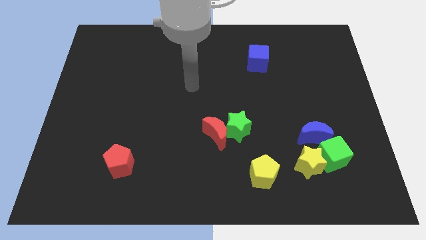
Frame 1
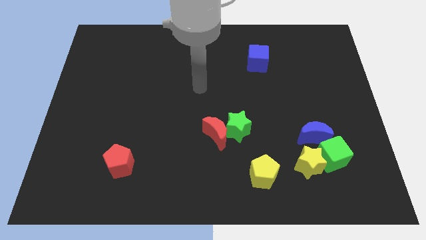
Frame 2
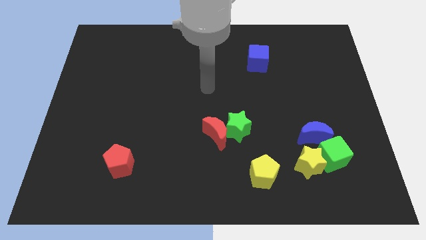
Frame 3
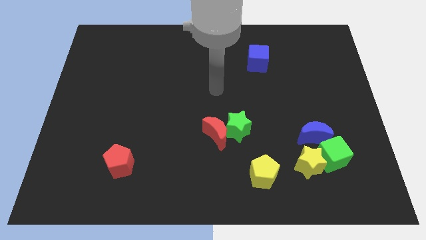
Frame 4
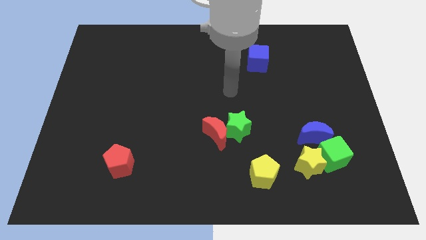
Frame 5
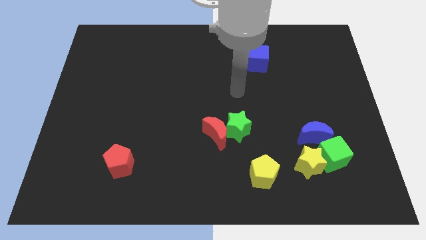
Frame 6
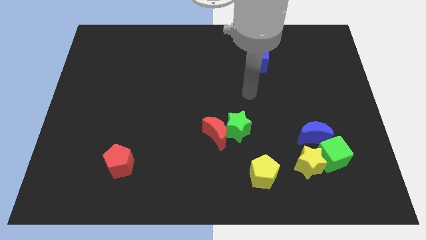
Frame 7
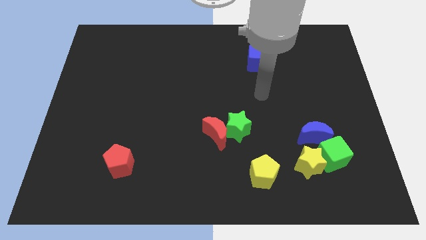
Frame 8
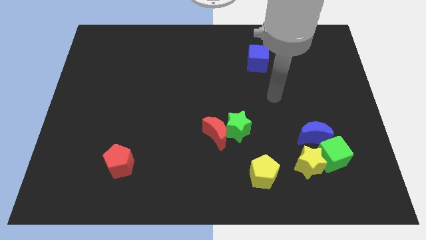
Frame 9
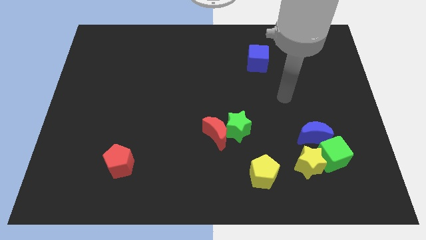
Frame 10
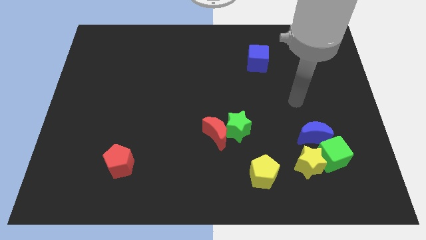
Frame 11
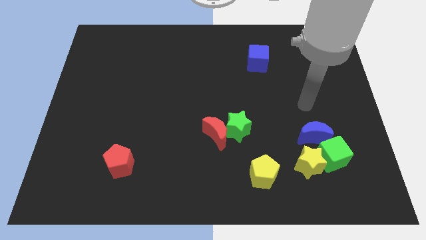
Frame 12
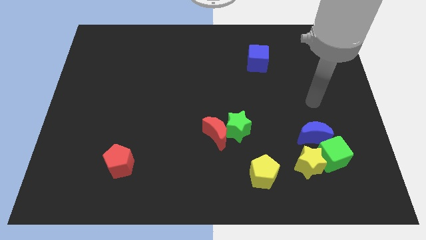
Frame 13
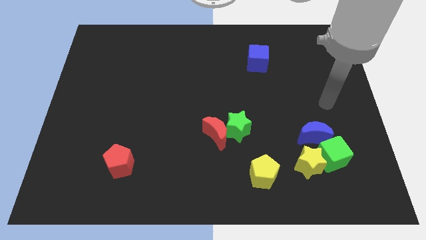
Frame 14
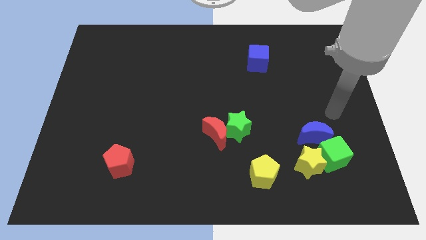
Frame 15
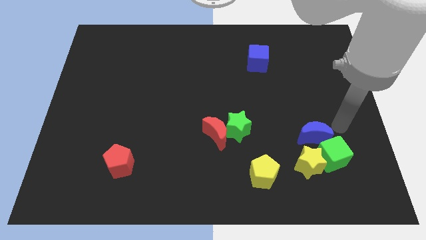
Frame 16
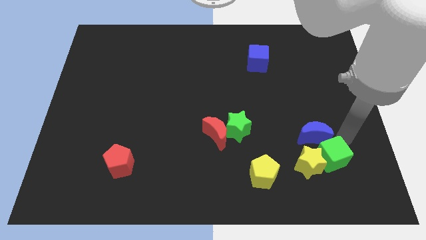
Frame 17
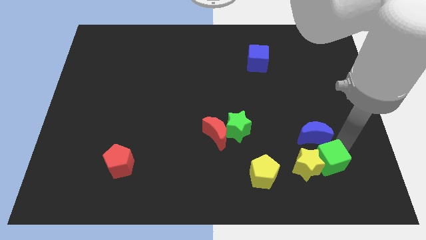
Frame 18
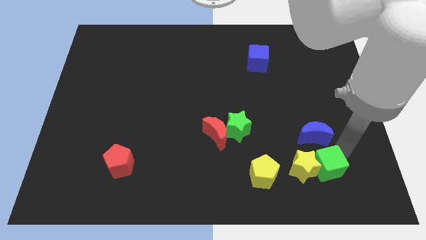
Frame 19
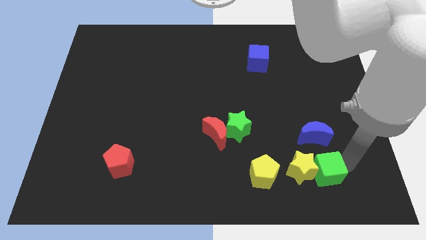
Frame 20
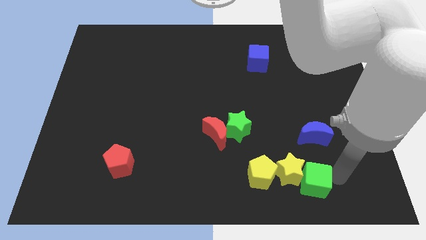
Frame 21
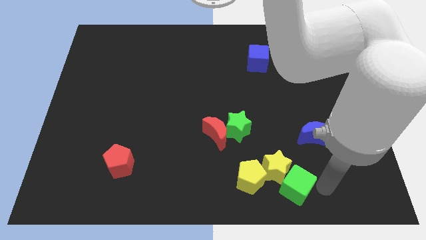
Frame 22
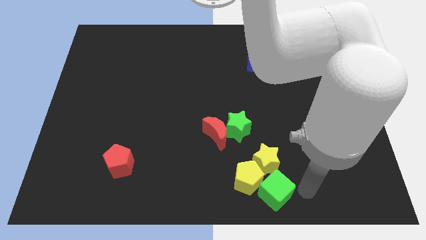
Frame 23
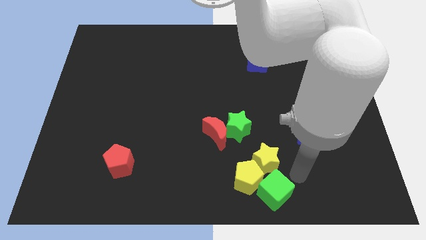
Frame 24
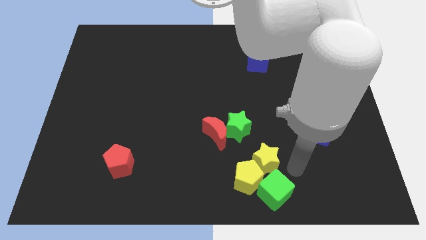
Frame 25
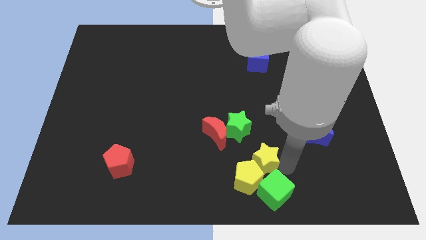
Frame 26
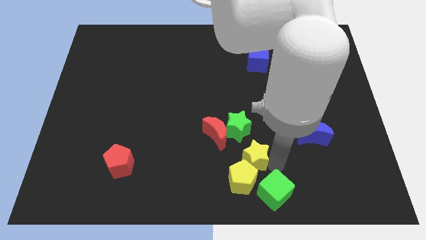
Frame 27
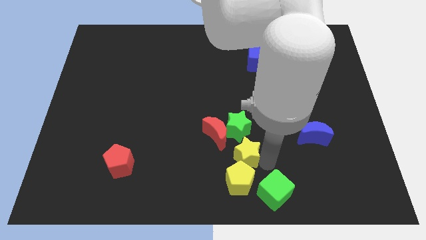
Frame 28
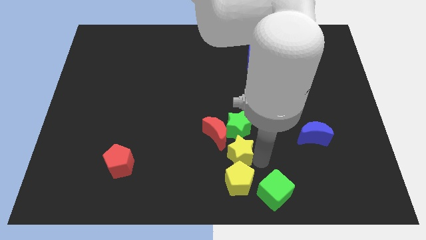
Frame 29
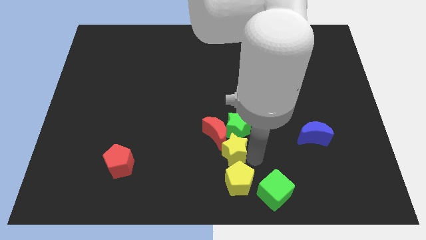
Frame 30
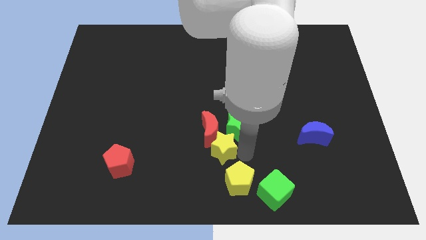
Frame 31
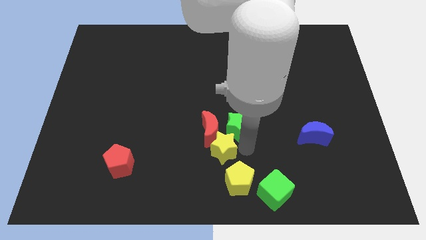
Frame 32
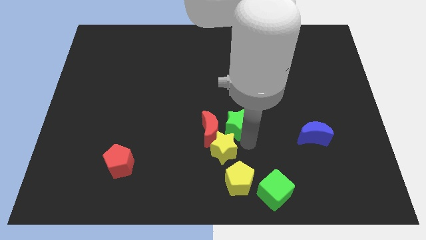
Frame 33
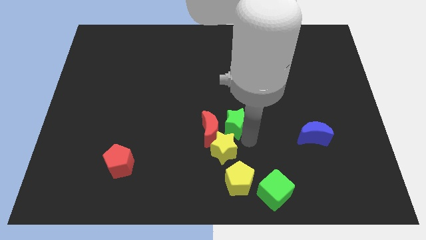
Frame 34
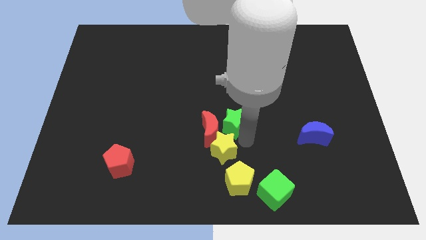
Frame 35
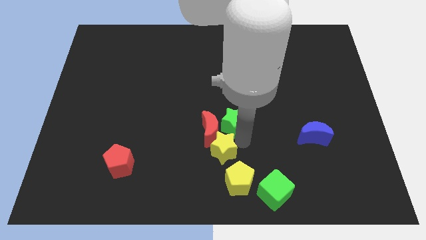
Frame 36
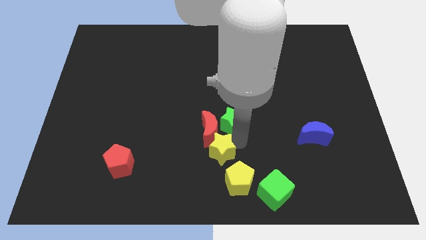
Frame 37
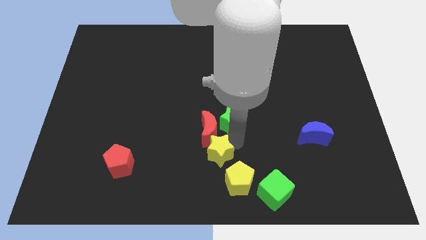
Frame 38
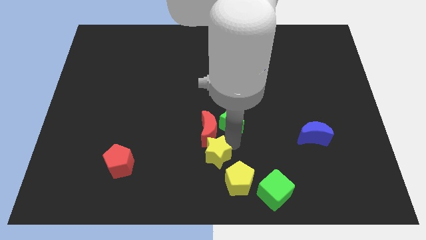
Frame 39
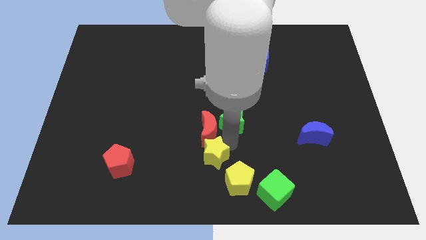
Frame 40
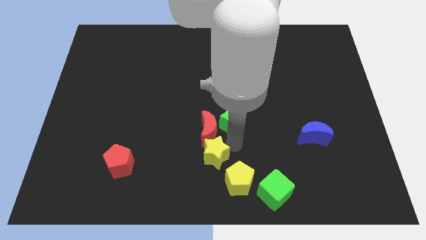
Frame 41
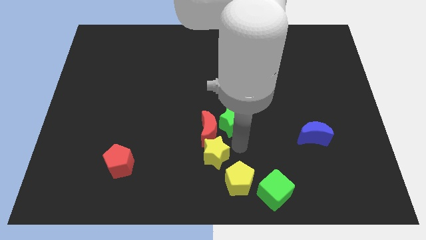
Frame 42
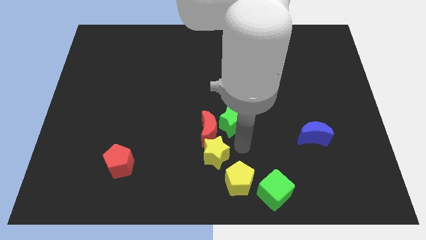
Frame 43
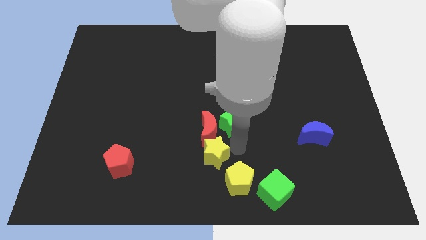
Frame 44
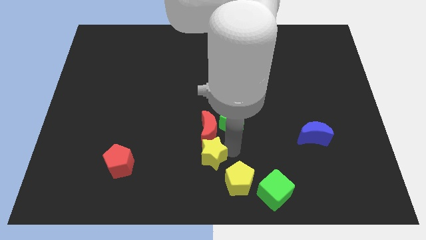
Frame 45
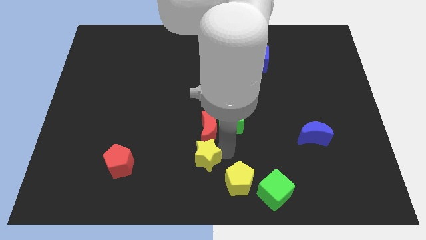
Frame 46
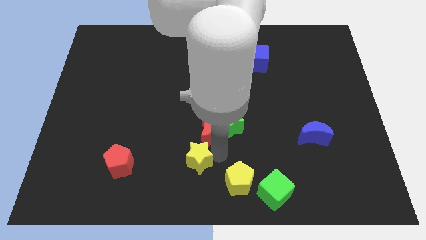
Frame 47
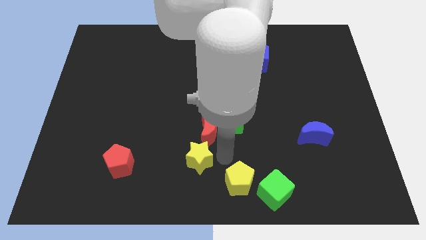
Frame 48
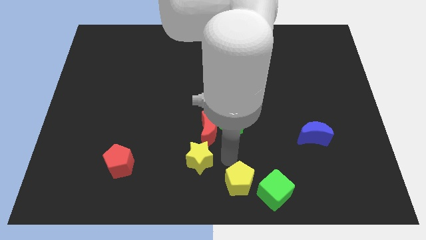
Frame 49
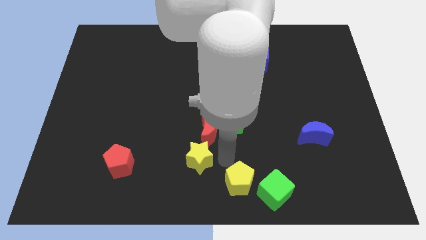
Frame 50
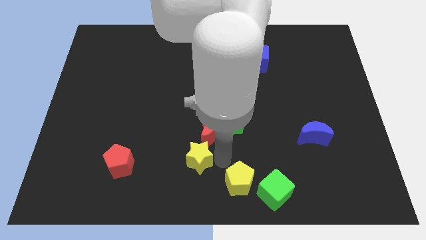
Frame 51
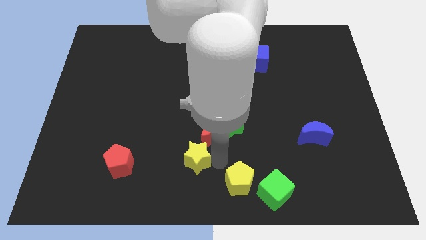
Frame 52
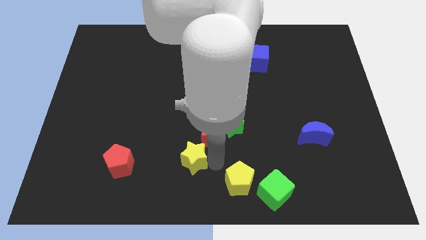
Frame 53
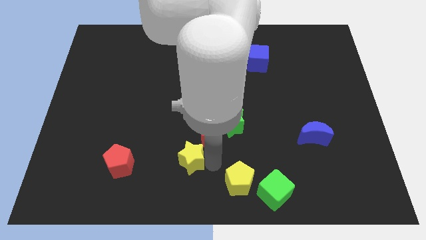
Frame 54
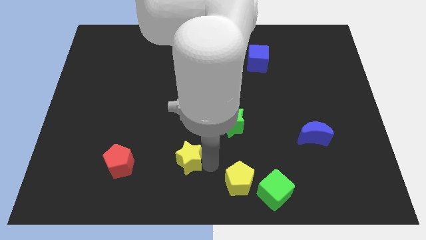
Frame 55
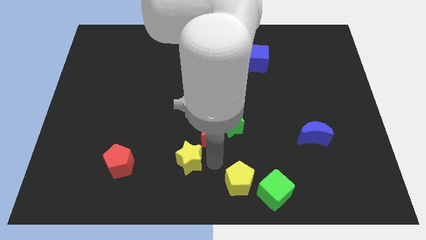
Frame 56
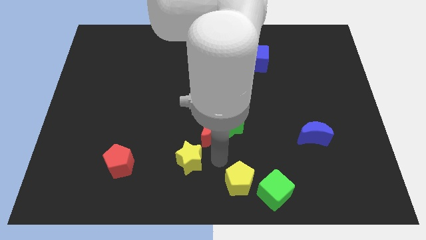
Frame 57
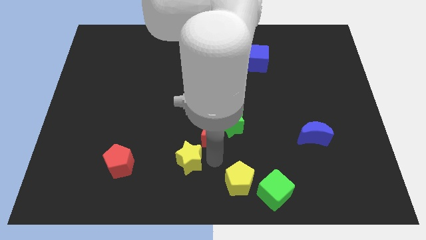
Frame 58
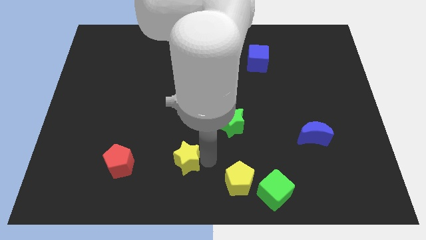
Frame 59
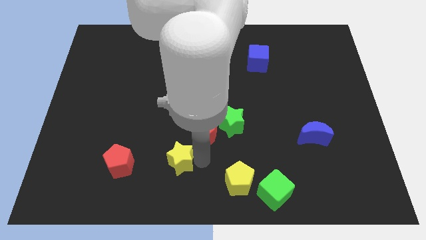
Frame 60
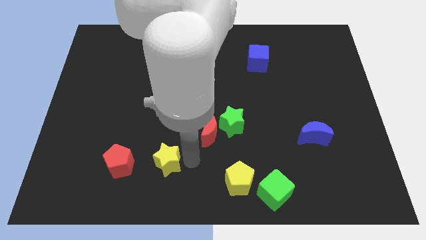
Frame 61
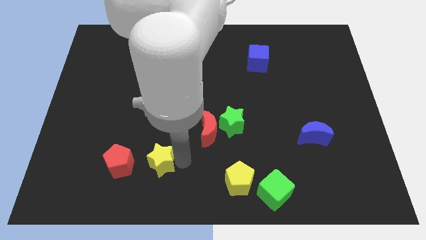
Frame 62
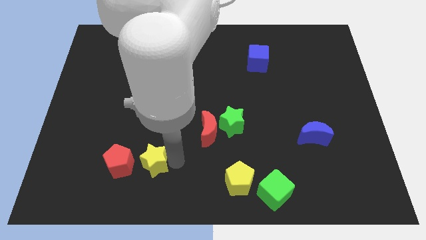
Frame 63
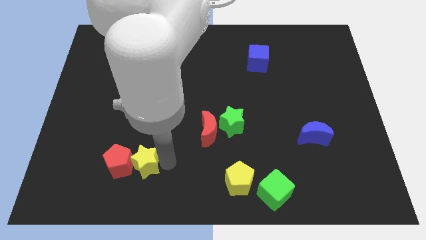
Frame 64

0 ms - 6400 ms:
push the yellow star next to the red pentagon

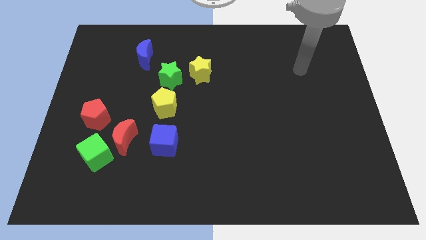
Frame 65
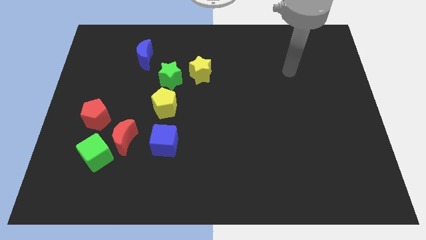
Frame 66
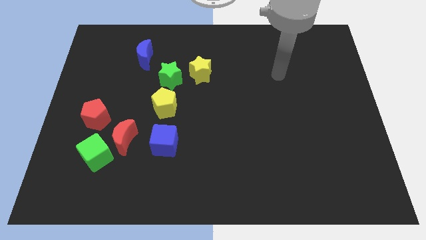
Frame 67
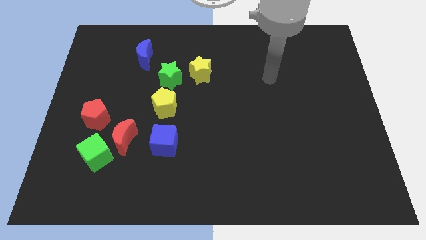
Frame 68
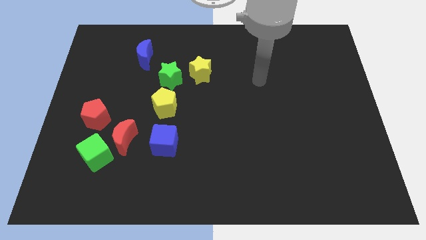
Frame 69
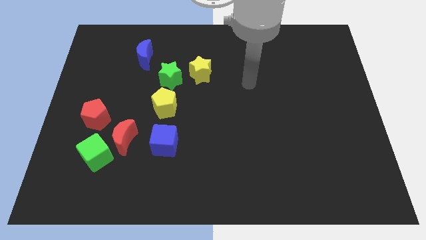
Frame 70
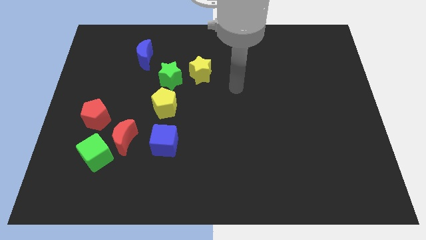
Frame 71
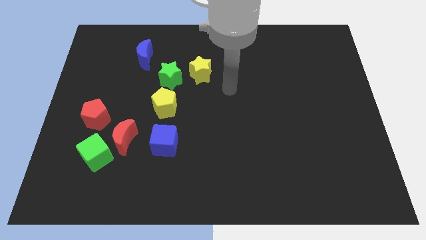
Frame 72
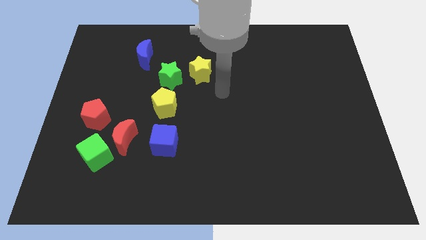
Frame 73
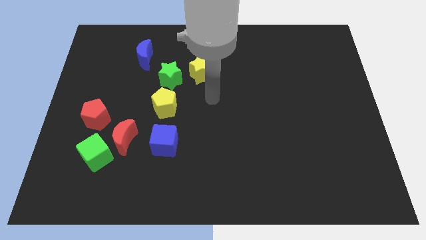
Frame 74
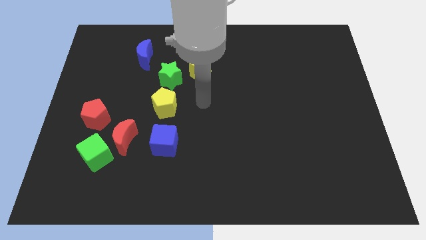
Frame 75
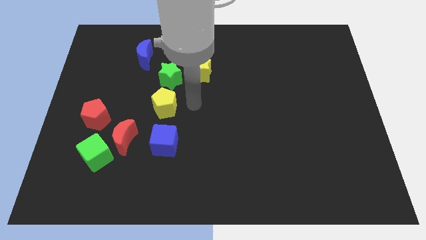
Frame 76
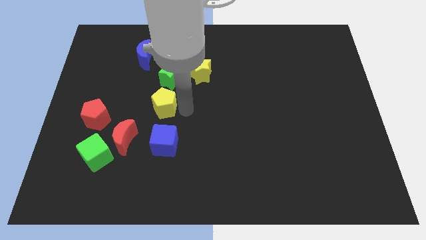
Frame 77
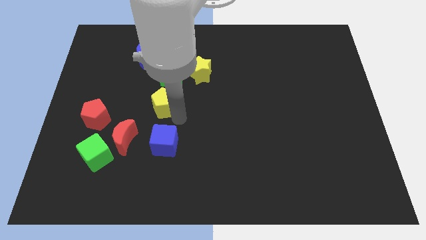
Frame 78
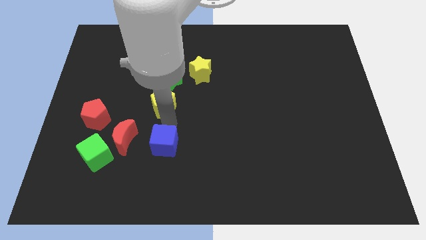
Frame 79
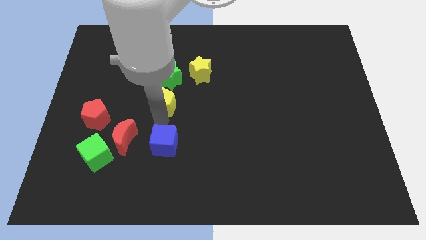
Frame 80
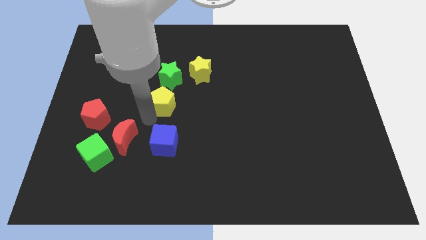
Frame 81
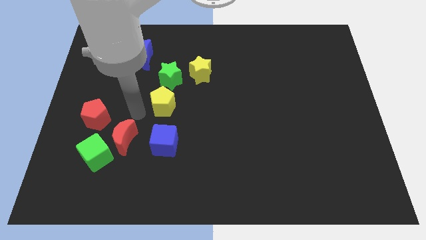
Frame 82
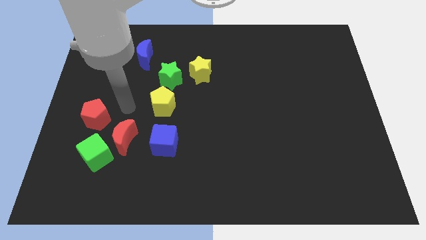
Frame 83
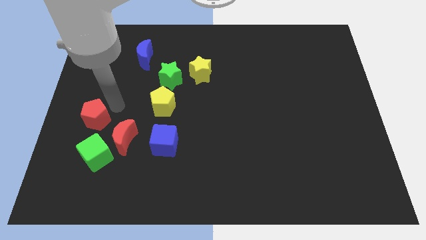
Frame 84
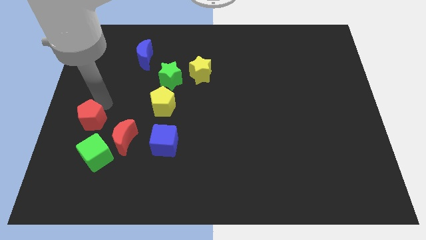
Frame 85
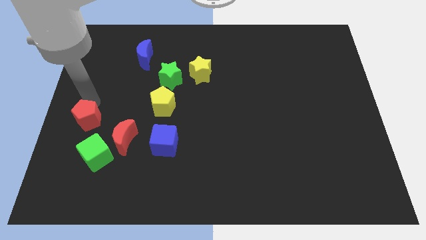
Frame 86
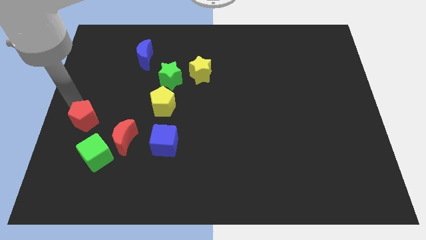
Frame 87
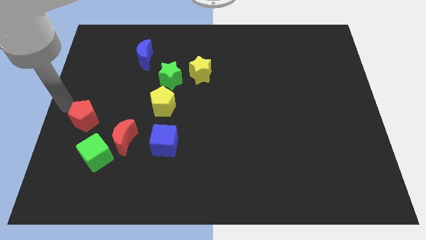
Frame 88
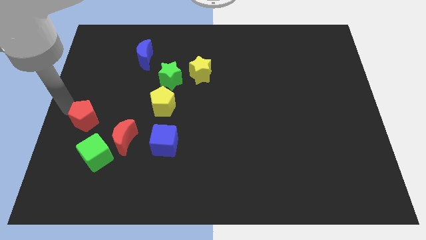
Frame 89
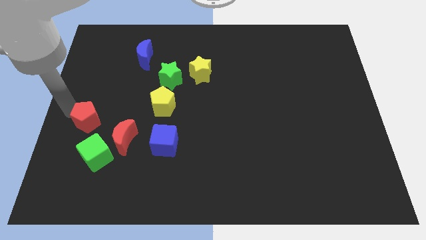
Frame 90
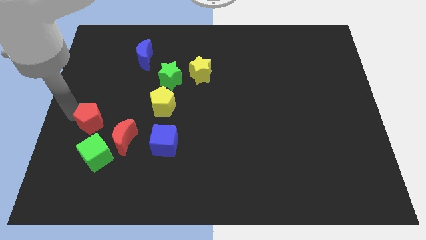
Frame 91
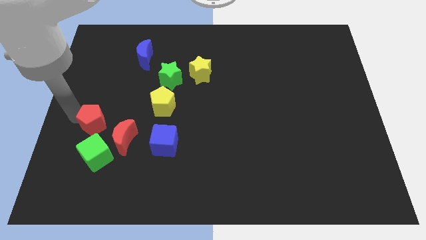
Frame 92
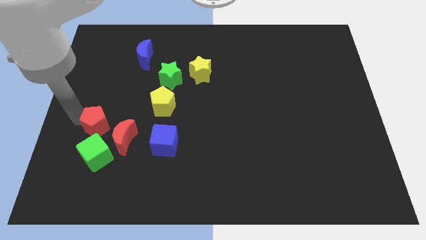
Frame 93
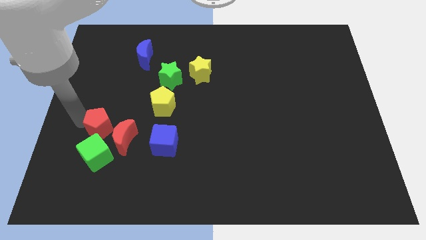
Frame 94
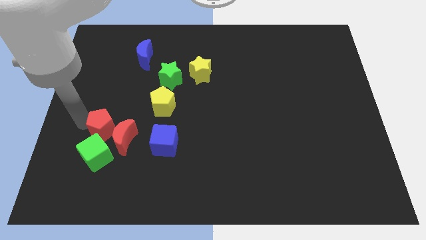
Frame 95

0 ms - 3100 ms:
push the red pentagon towards the red moon
